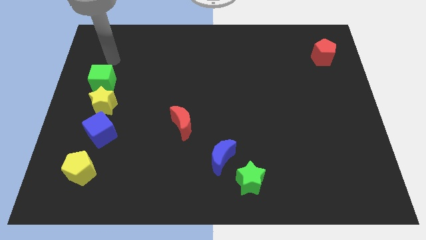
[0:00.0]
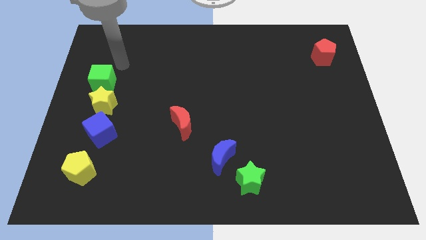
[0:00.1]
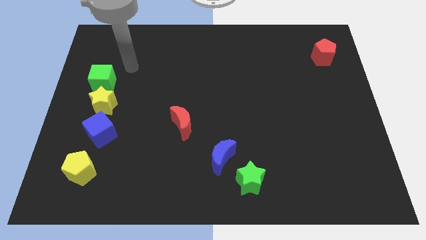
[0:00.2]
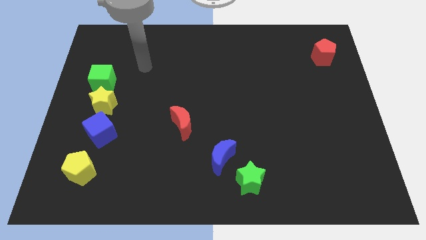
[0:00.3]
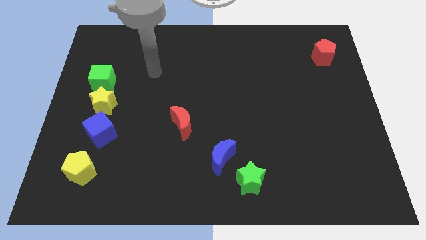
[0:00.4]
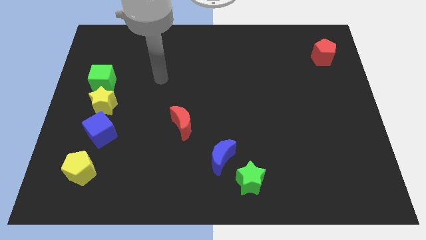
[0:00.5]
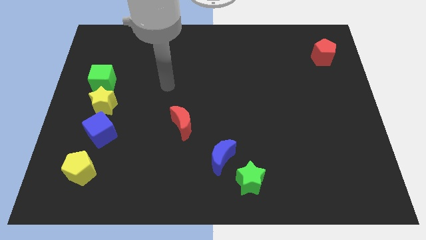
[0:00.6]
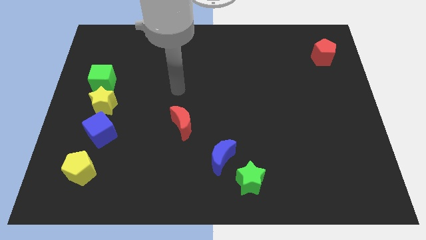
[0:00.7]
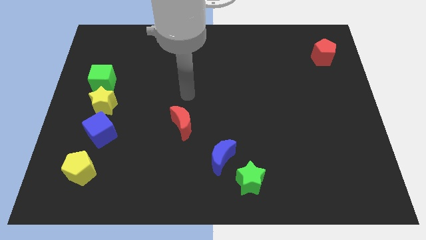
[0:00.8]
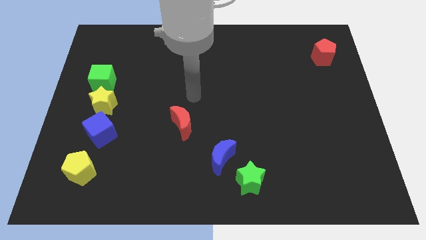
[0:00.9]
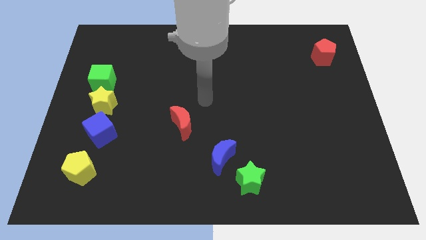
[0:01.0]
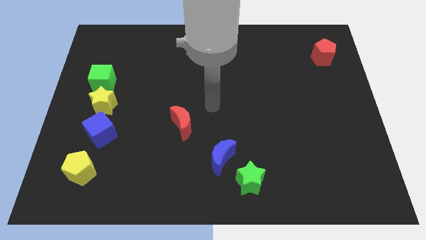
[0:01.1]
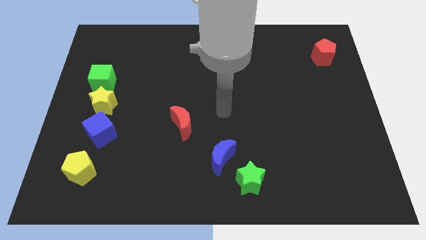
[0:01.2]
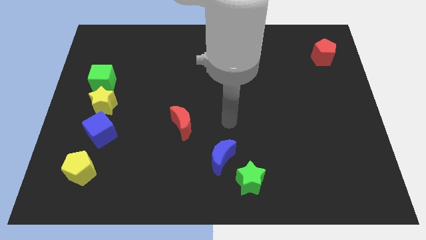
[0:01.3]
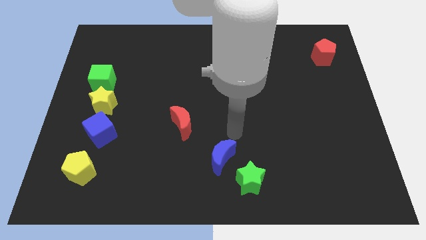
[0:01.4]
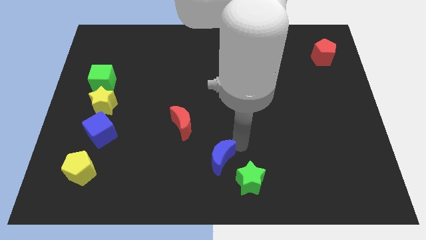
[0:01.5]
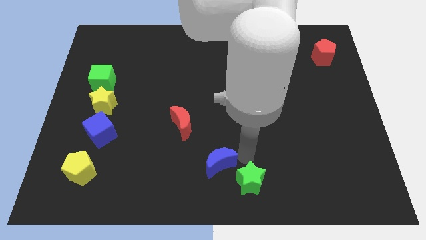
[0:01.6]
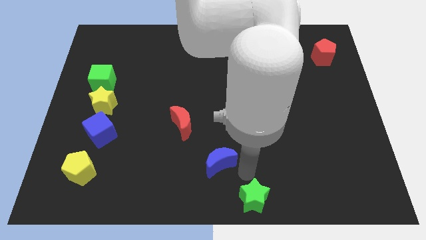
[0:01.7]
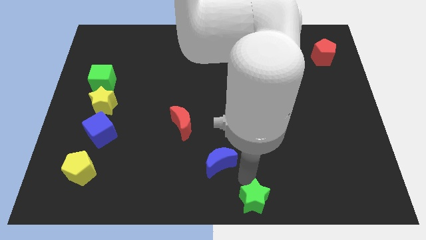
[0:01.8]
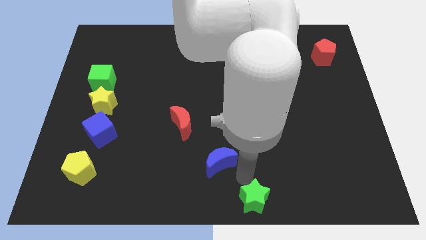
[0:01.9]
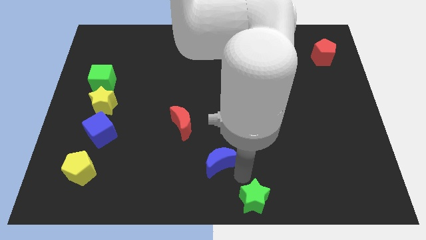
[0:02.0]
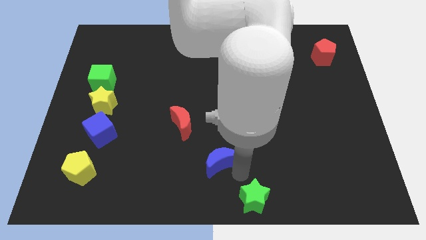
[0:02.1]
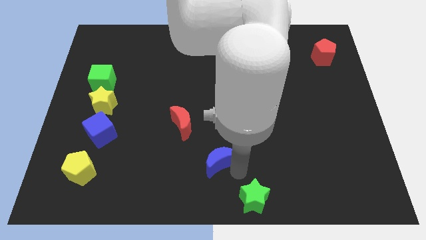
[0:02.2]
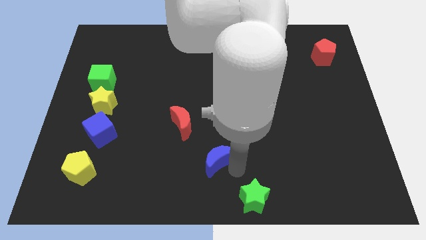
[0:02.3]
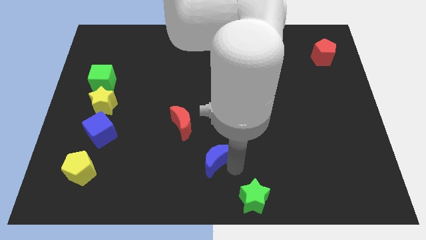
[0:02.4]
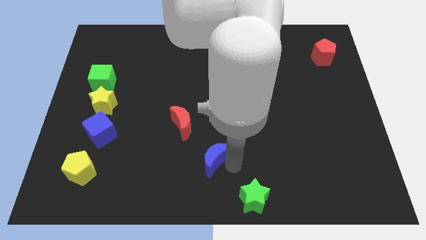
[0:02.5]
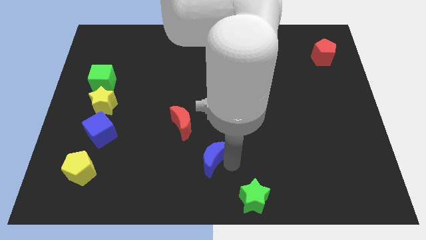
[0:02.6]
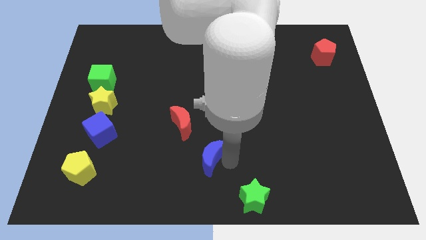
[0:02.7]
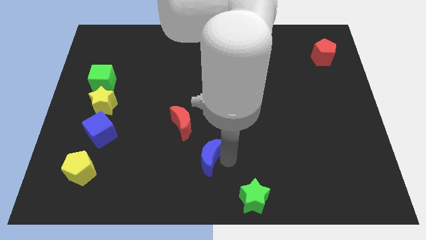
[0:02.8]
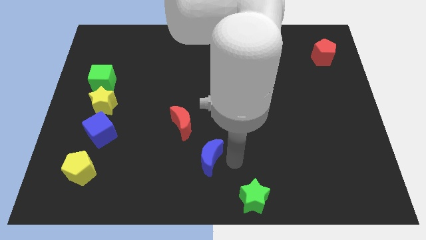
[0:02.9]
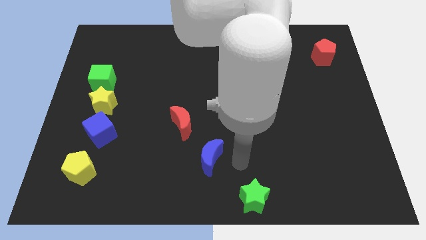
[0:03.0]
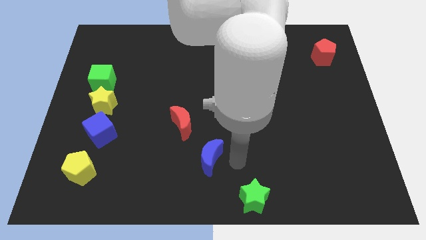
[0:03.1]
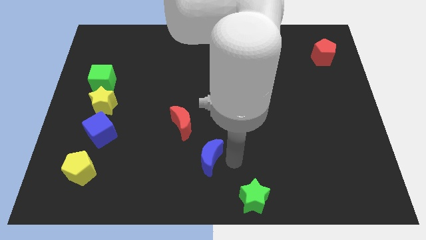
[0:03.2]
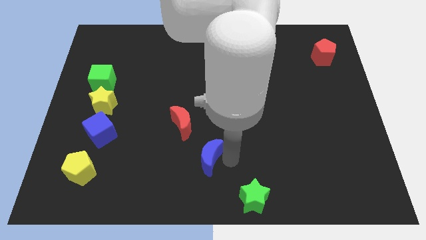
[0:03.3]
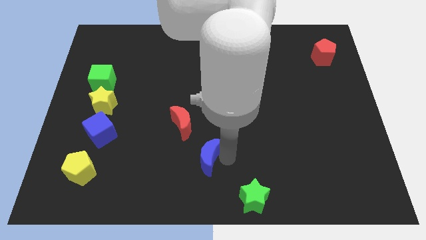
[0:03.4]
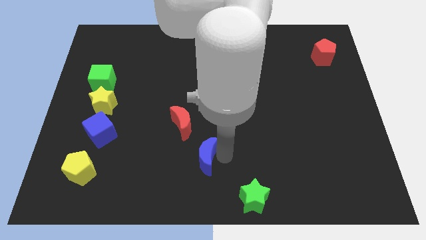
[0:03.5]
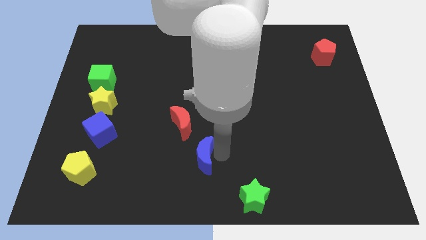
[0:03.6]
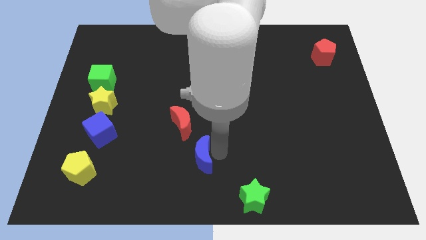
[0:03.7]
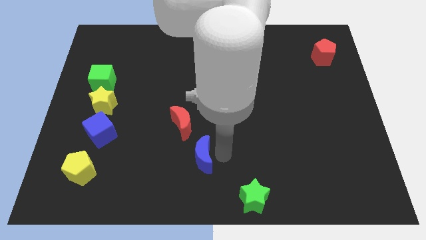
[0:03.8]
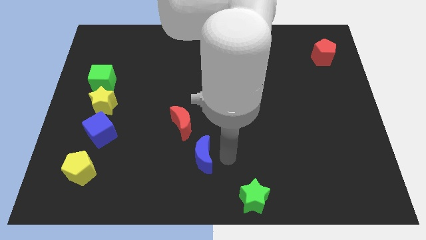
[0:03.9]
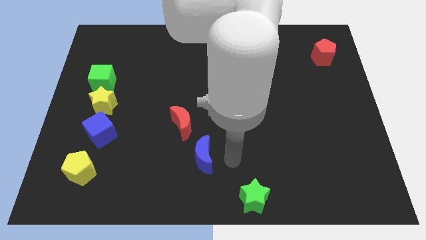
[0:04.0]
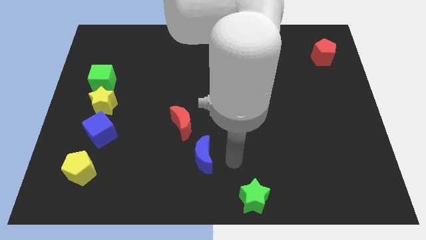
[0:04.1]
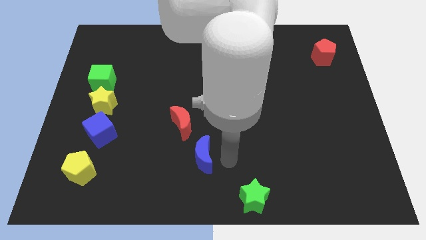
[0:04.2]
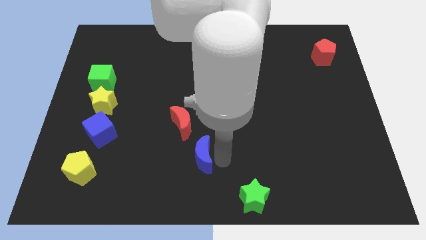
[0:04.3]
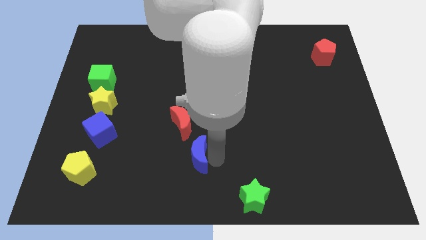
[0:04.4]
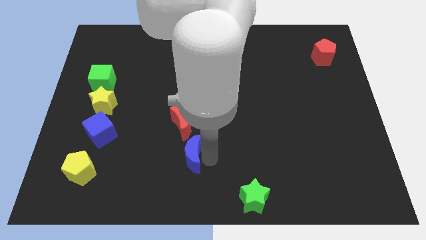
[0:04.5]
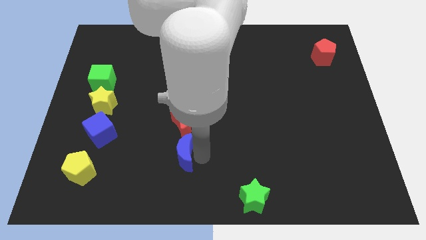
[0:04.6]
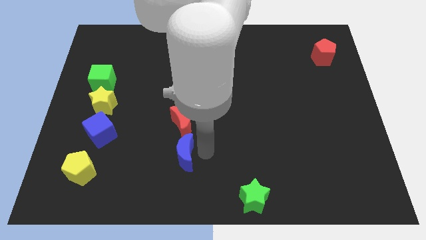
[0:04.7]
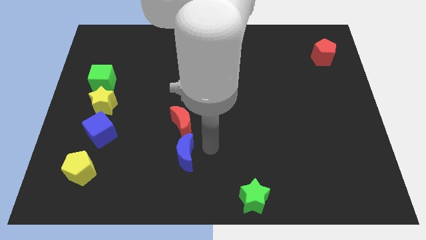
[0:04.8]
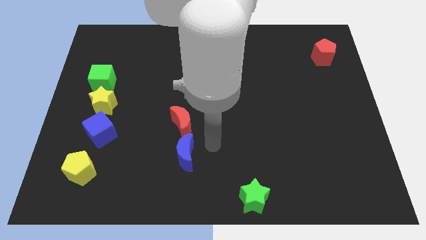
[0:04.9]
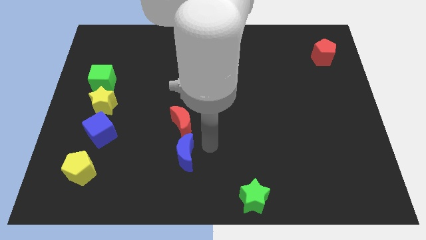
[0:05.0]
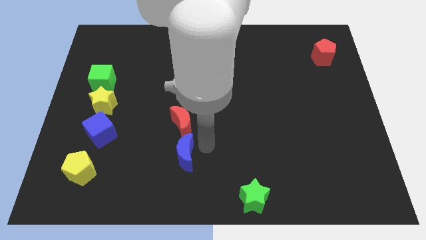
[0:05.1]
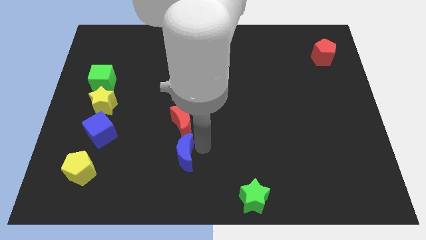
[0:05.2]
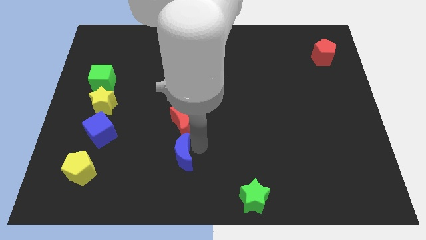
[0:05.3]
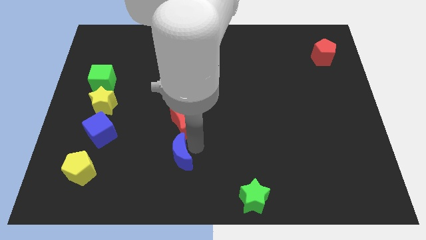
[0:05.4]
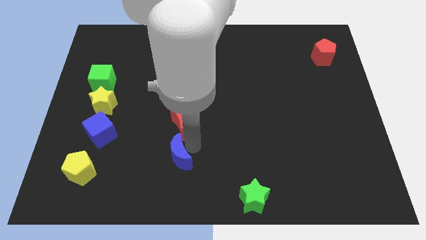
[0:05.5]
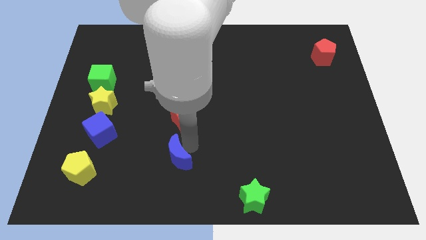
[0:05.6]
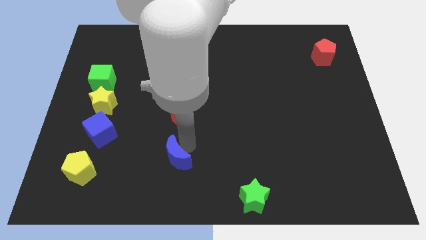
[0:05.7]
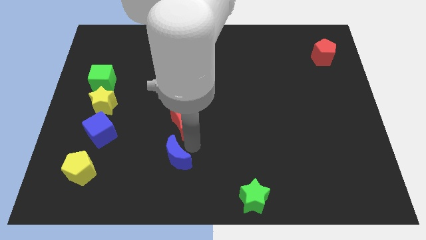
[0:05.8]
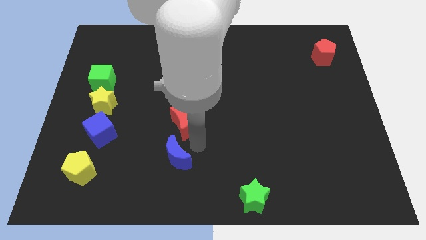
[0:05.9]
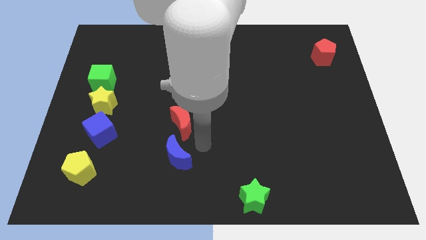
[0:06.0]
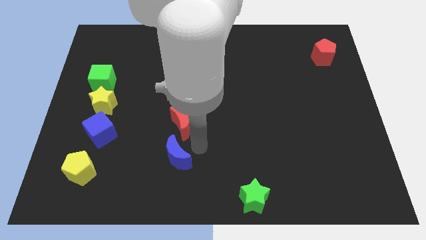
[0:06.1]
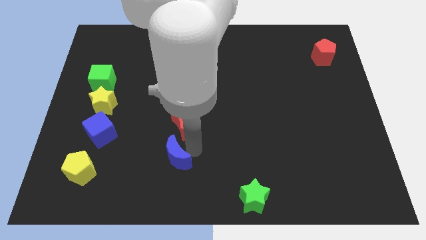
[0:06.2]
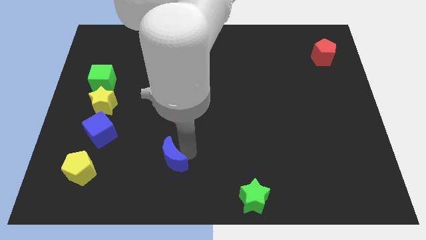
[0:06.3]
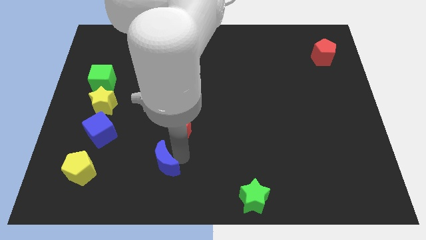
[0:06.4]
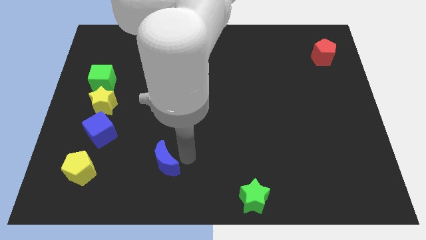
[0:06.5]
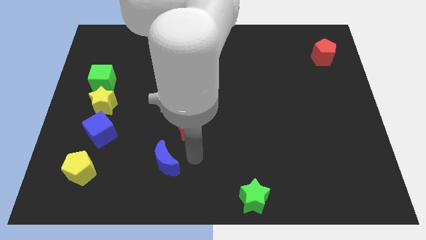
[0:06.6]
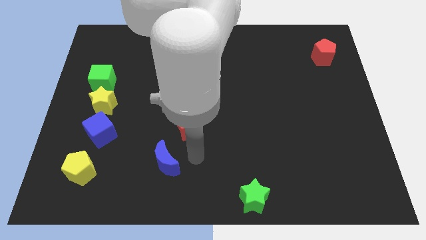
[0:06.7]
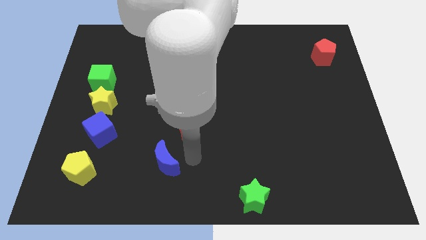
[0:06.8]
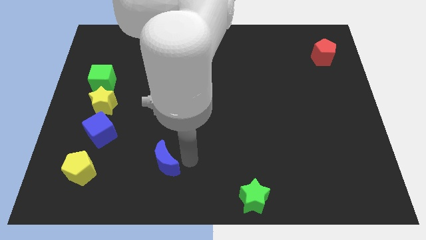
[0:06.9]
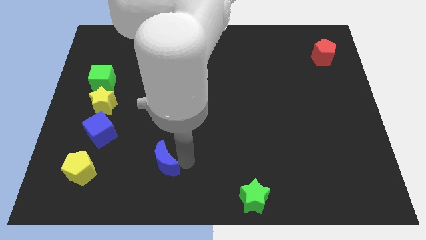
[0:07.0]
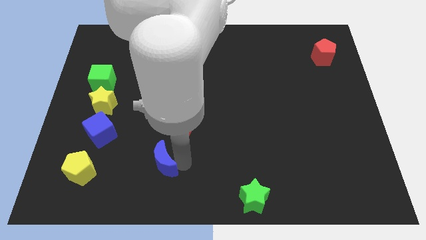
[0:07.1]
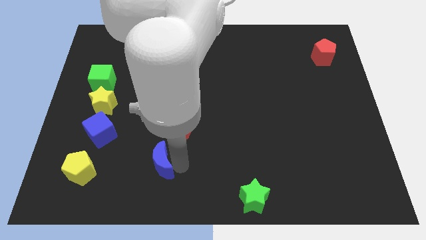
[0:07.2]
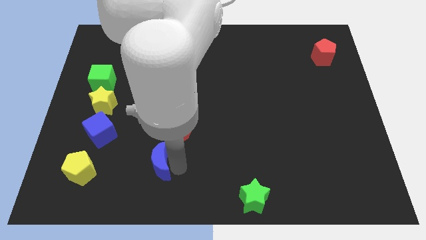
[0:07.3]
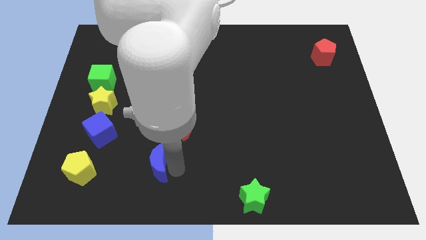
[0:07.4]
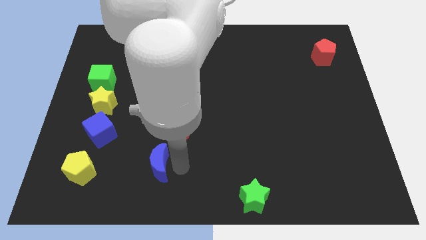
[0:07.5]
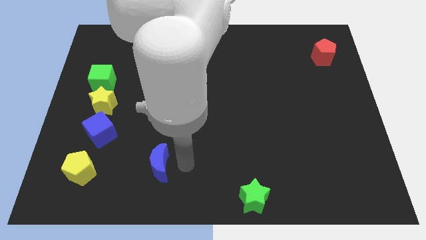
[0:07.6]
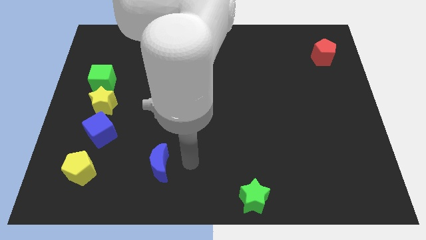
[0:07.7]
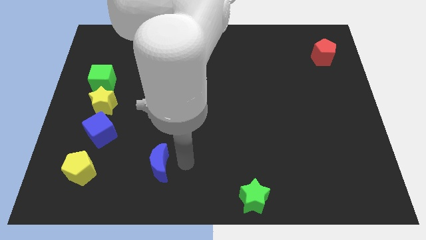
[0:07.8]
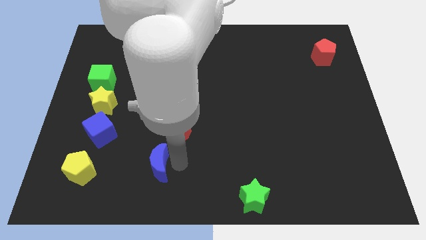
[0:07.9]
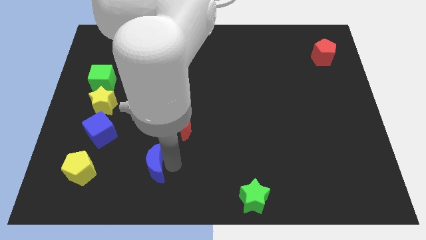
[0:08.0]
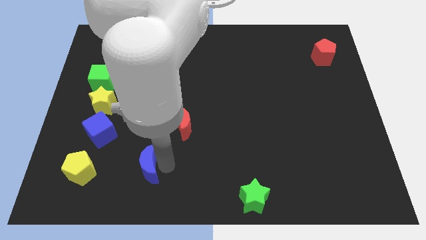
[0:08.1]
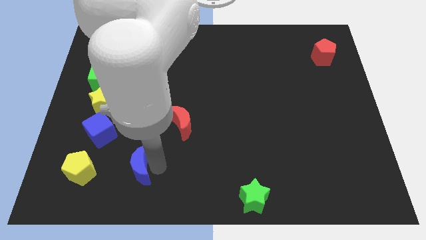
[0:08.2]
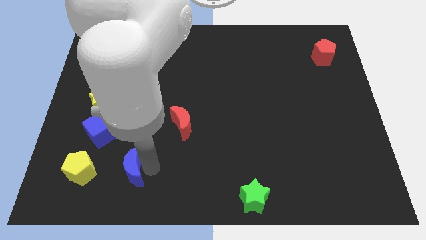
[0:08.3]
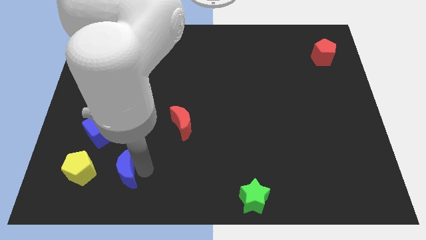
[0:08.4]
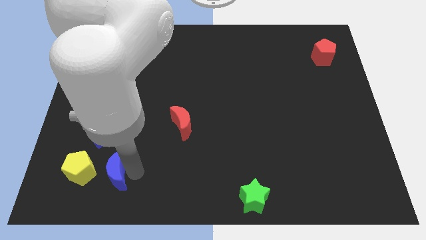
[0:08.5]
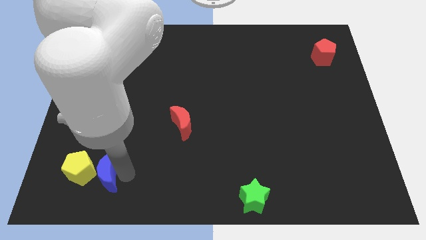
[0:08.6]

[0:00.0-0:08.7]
slide the blue moon towards the yellow pentagon
